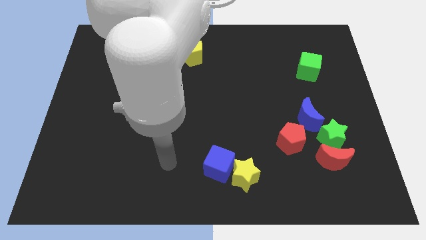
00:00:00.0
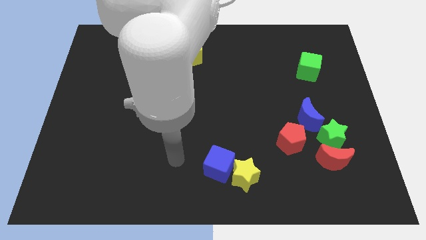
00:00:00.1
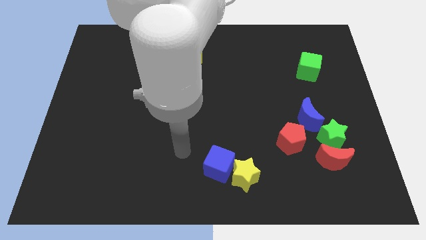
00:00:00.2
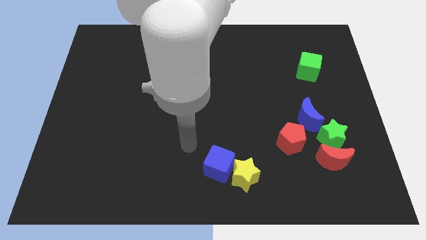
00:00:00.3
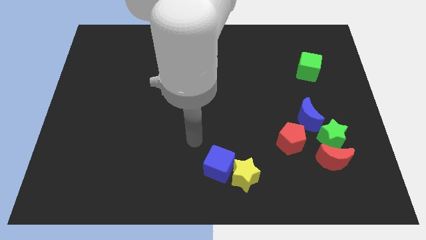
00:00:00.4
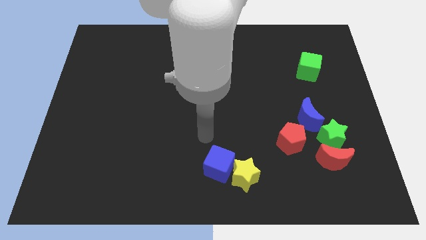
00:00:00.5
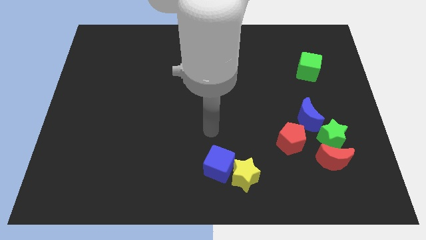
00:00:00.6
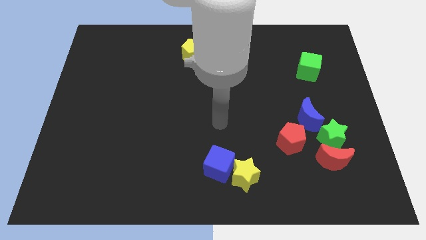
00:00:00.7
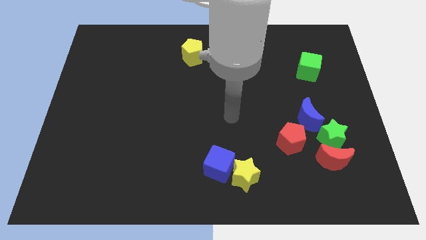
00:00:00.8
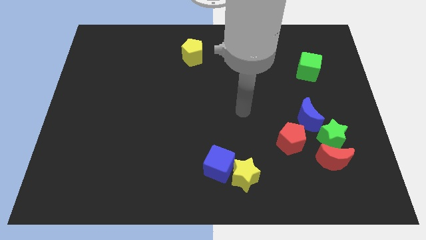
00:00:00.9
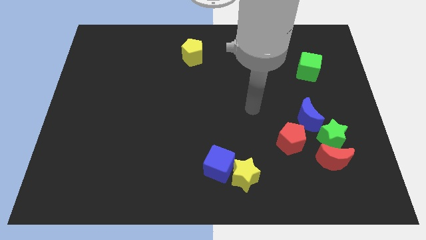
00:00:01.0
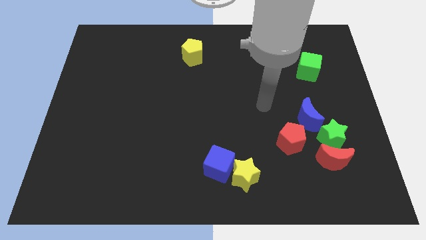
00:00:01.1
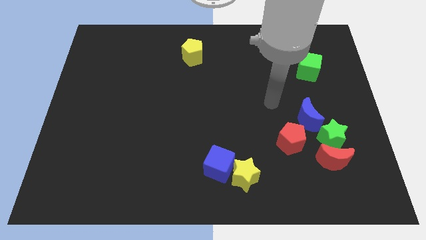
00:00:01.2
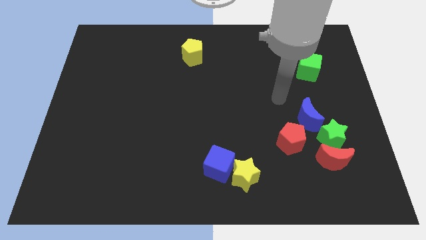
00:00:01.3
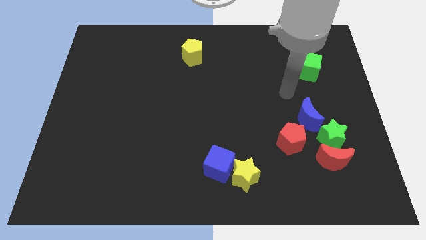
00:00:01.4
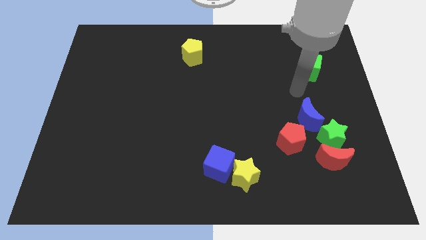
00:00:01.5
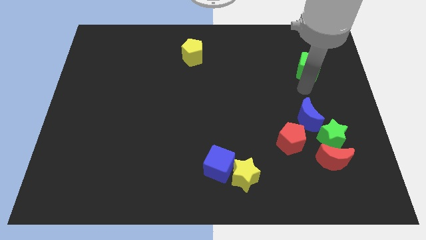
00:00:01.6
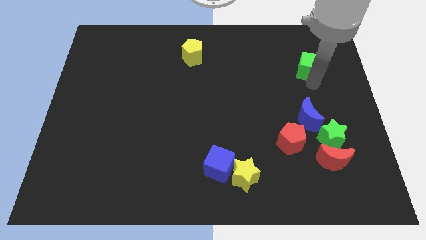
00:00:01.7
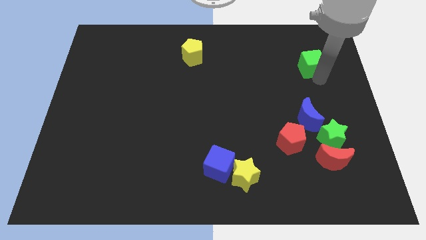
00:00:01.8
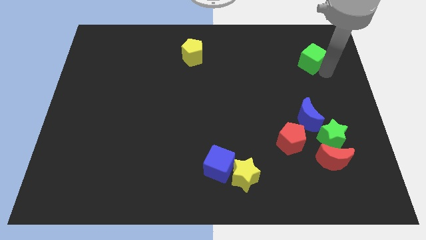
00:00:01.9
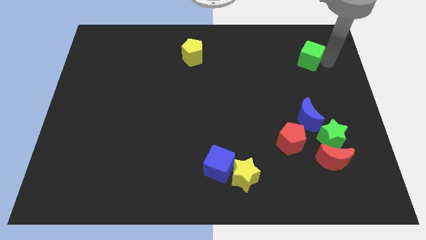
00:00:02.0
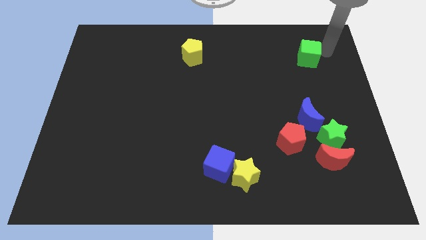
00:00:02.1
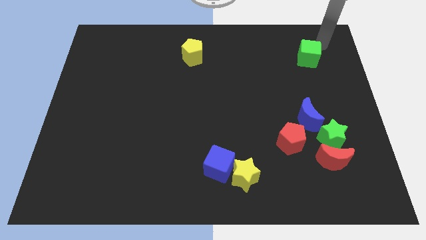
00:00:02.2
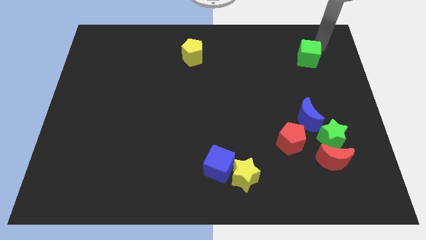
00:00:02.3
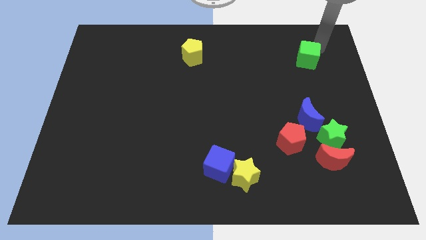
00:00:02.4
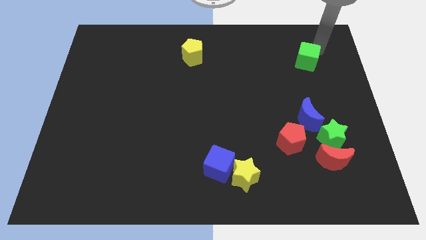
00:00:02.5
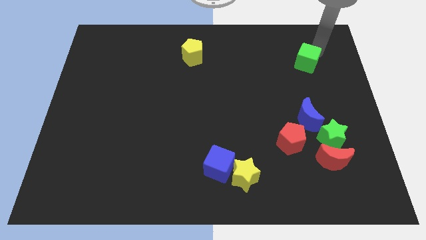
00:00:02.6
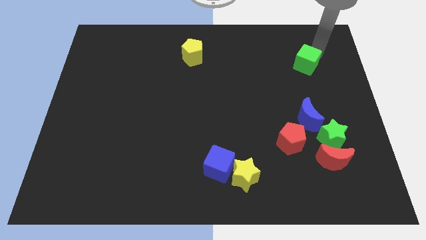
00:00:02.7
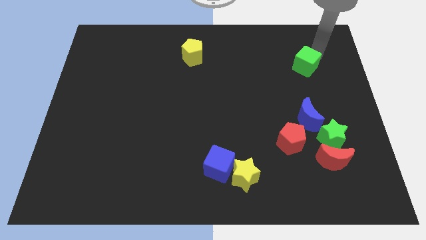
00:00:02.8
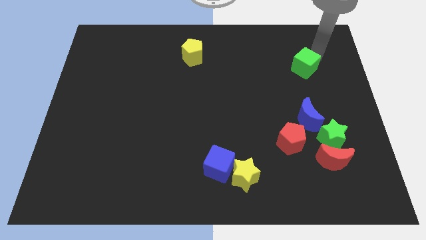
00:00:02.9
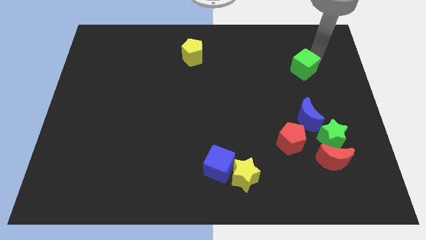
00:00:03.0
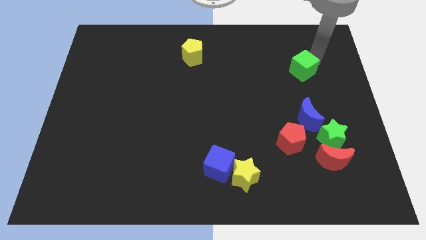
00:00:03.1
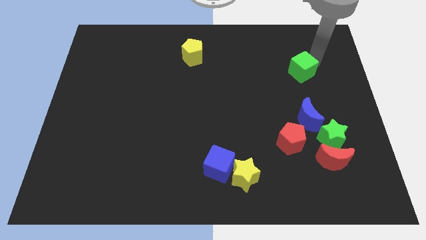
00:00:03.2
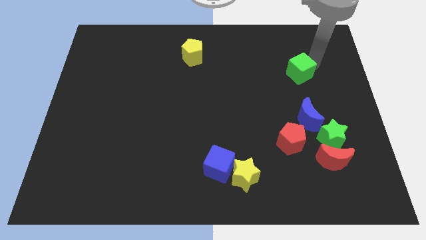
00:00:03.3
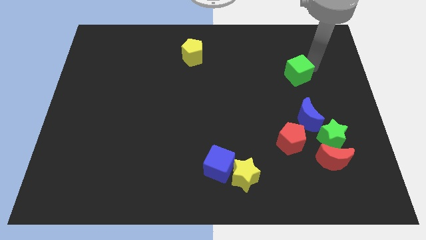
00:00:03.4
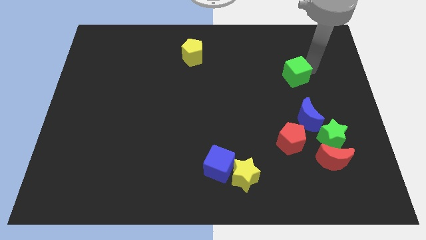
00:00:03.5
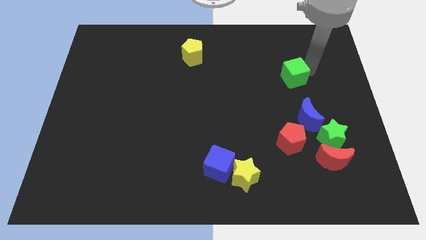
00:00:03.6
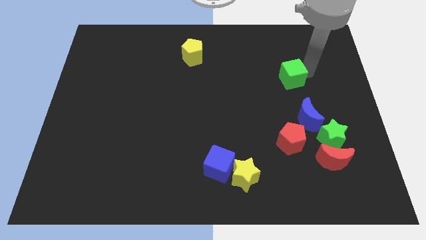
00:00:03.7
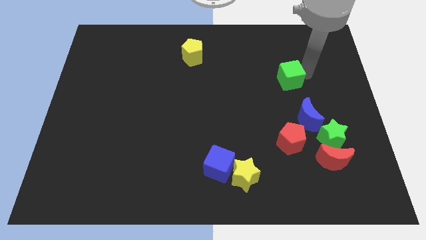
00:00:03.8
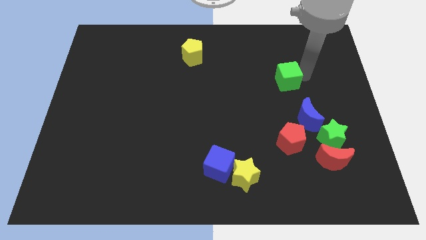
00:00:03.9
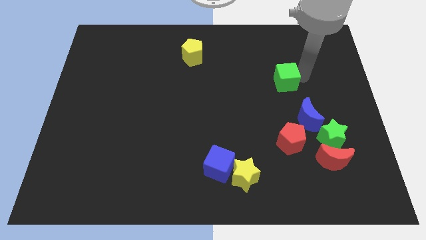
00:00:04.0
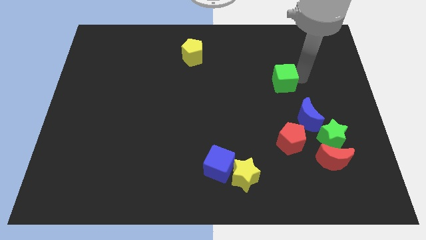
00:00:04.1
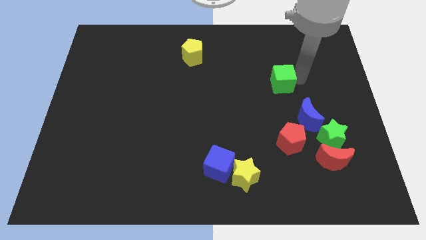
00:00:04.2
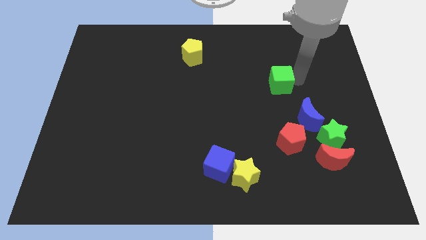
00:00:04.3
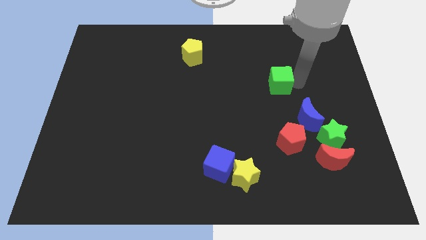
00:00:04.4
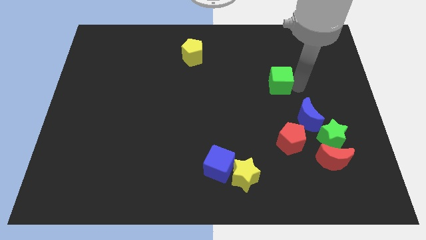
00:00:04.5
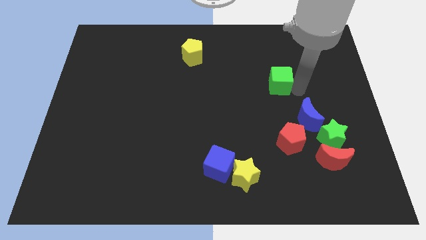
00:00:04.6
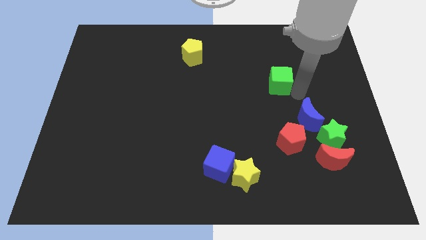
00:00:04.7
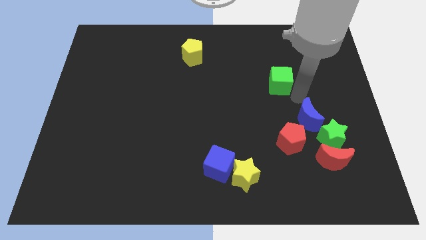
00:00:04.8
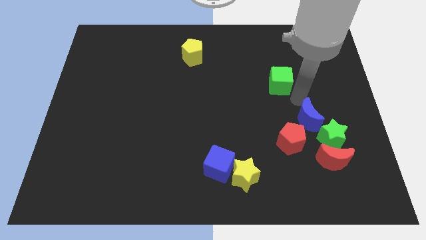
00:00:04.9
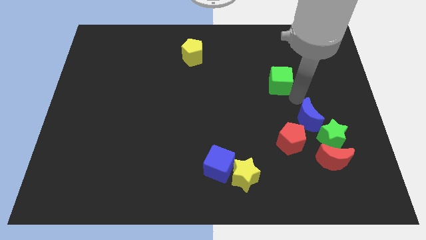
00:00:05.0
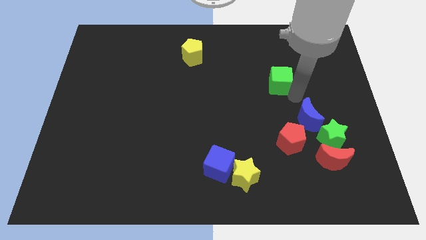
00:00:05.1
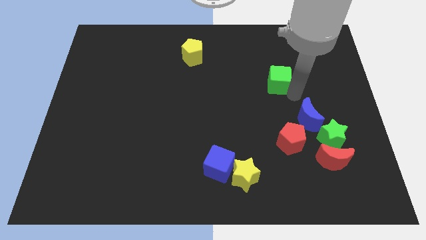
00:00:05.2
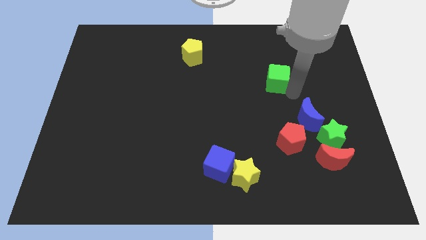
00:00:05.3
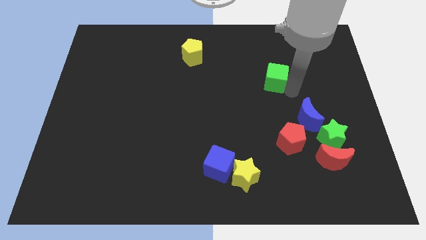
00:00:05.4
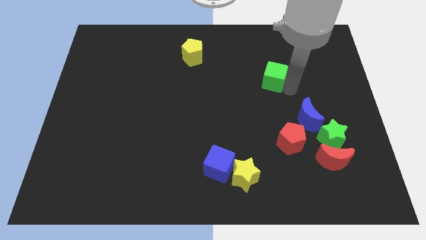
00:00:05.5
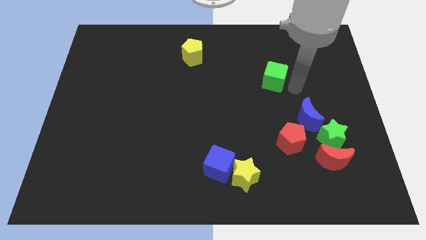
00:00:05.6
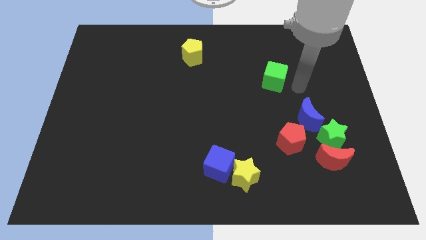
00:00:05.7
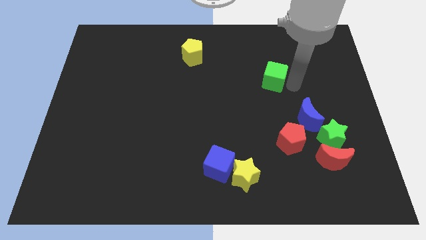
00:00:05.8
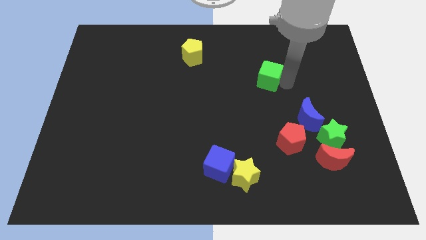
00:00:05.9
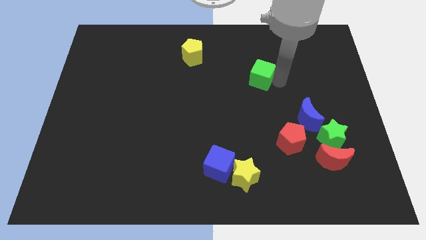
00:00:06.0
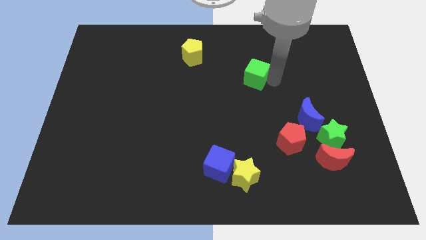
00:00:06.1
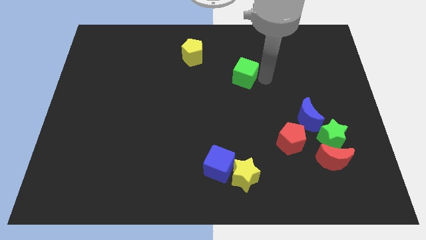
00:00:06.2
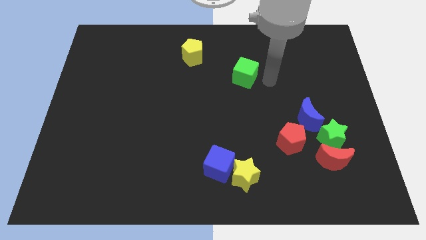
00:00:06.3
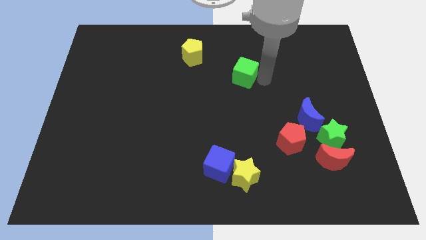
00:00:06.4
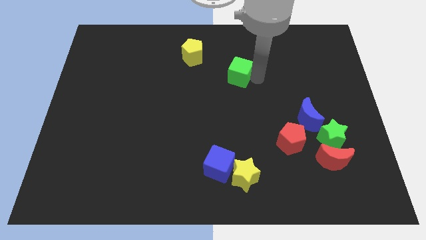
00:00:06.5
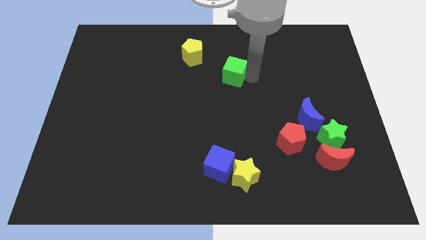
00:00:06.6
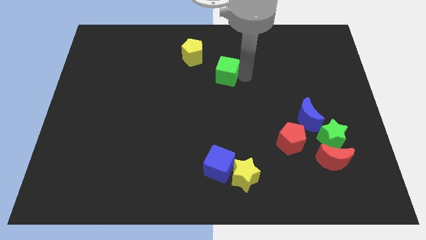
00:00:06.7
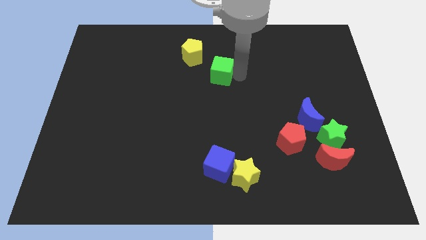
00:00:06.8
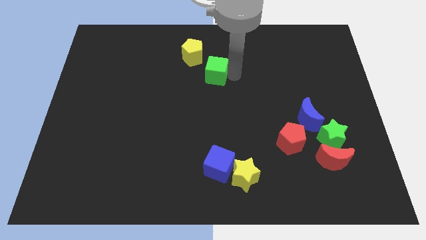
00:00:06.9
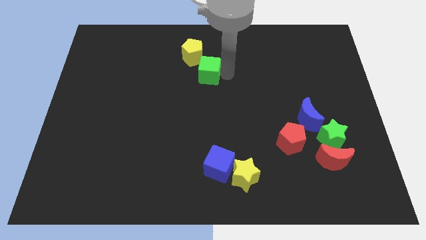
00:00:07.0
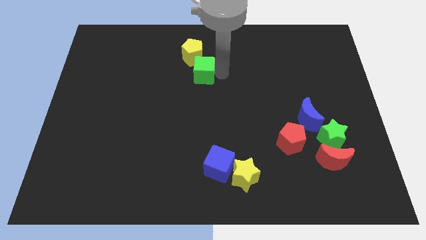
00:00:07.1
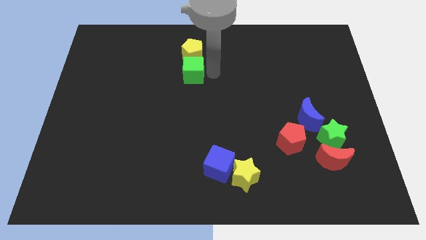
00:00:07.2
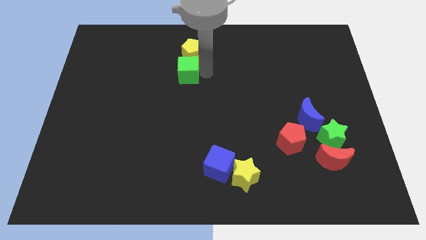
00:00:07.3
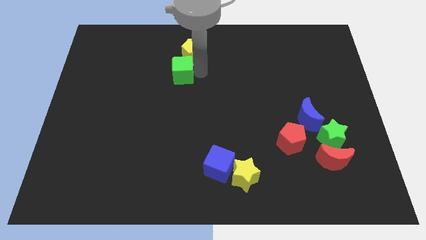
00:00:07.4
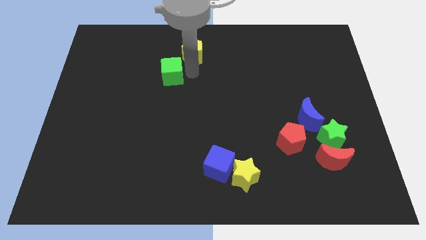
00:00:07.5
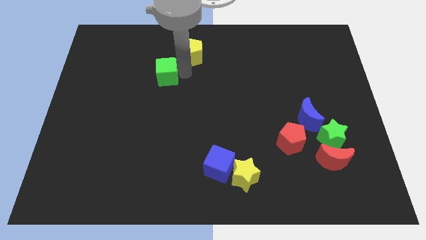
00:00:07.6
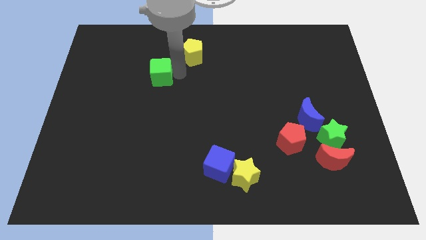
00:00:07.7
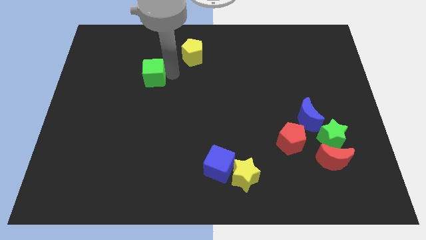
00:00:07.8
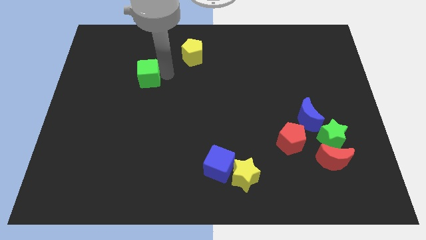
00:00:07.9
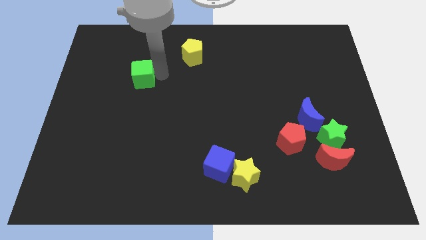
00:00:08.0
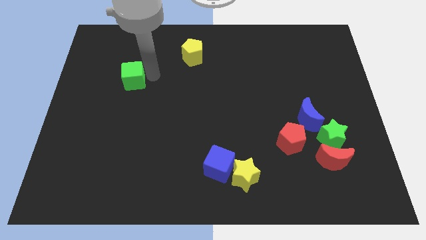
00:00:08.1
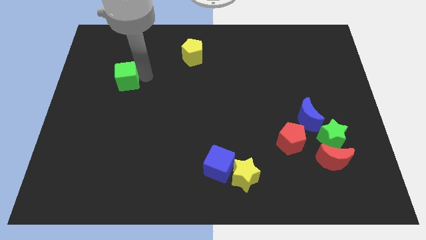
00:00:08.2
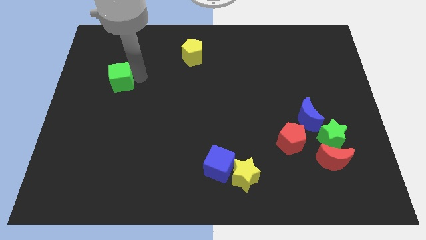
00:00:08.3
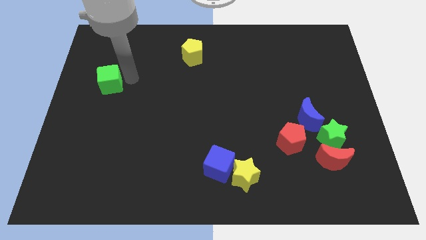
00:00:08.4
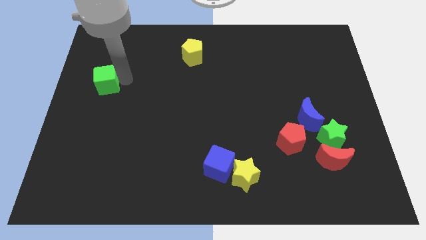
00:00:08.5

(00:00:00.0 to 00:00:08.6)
slide the green cube to the left side of the board
